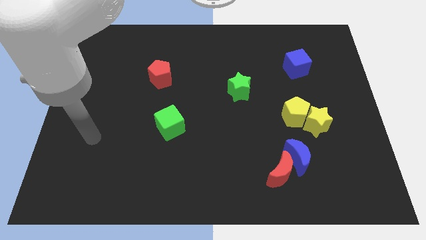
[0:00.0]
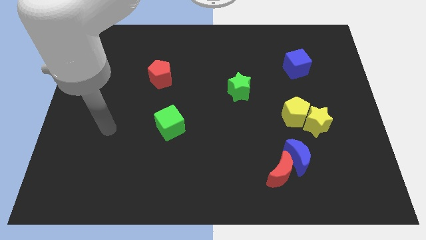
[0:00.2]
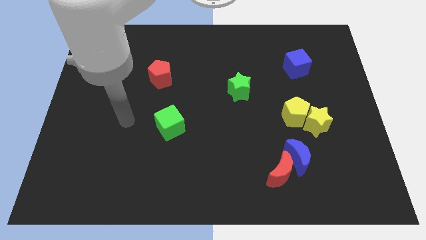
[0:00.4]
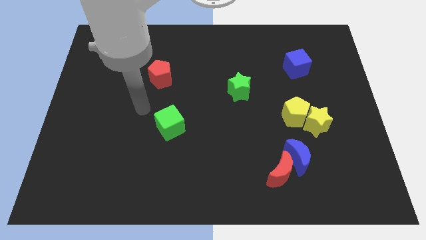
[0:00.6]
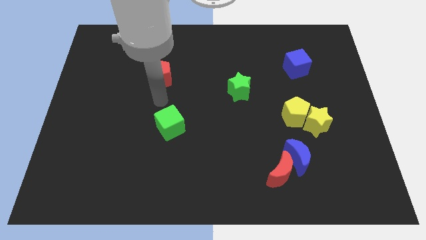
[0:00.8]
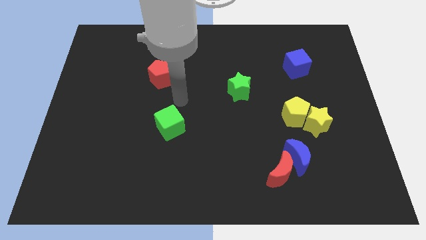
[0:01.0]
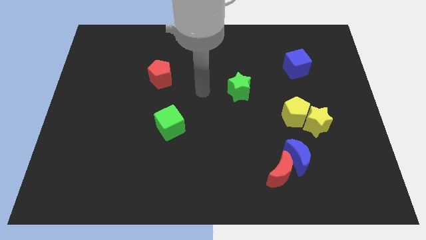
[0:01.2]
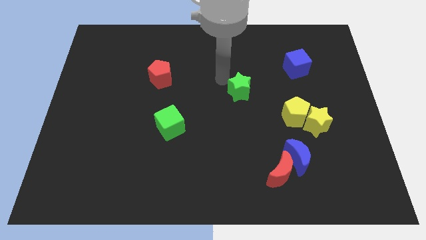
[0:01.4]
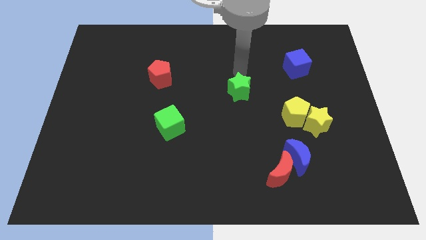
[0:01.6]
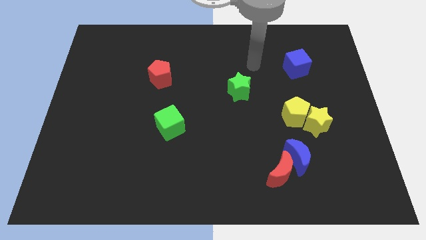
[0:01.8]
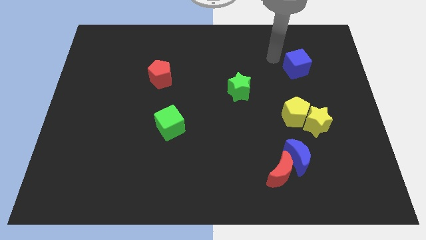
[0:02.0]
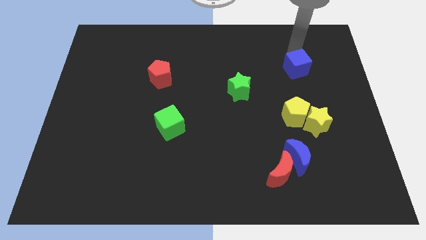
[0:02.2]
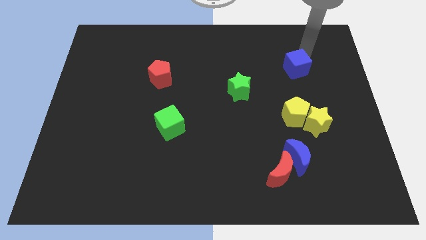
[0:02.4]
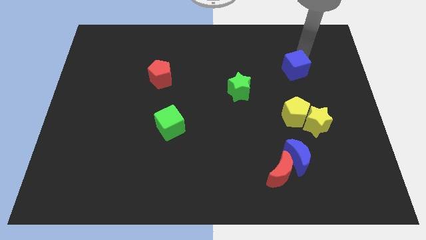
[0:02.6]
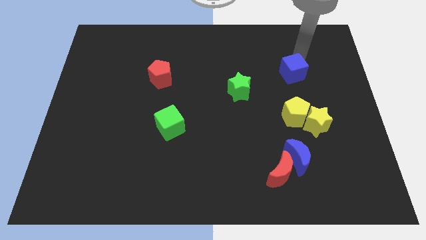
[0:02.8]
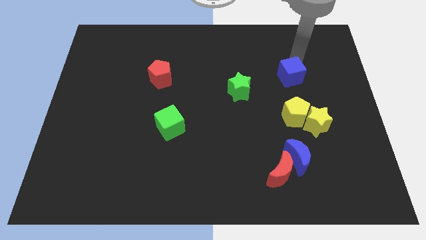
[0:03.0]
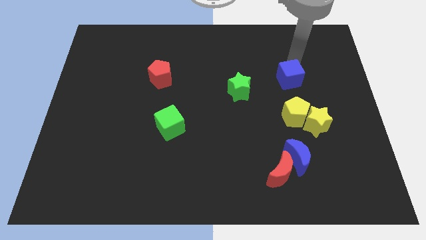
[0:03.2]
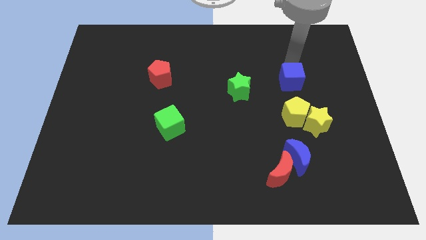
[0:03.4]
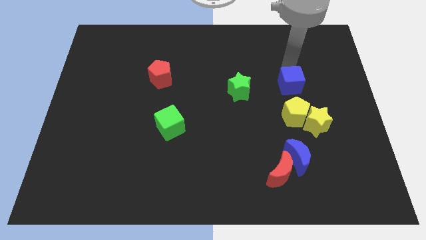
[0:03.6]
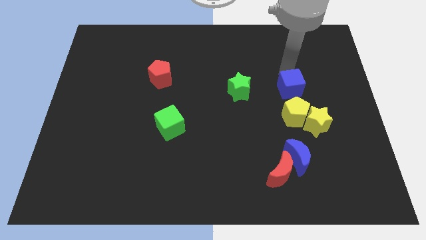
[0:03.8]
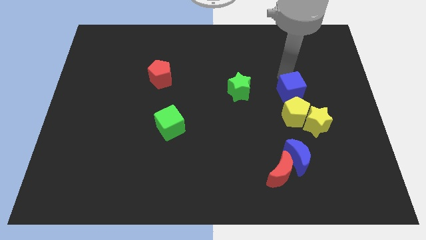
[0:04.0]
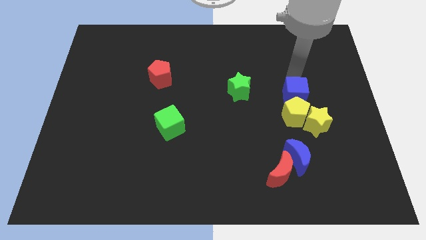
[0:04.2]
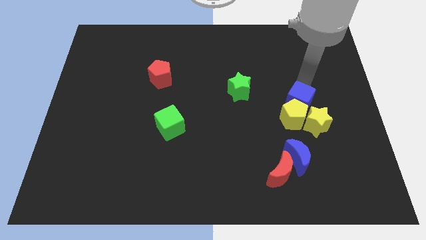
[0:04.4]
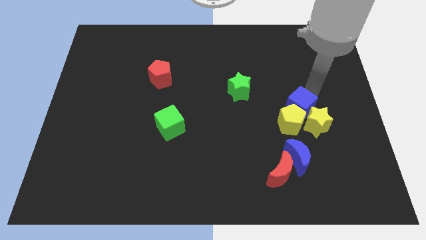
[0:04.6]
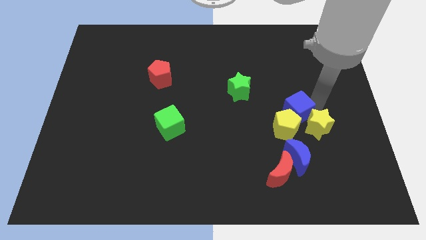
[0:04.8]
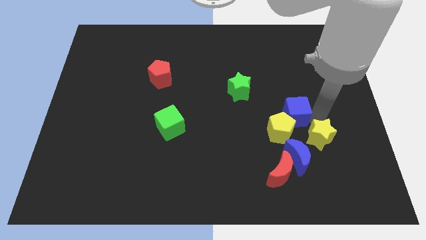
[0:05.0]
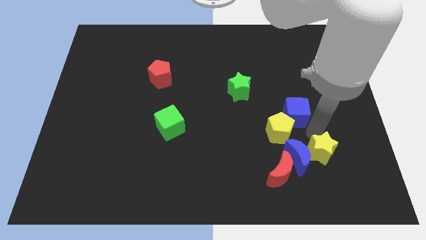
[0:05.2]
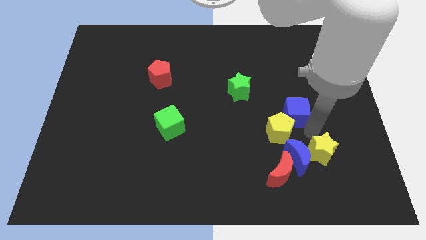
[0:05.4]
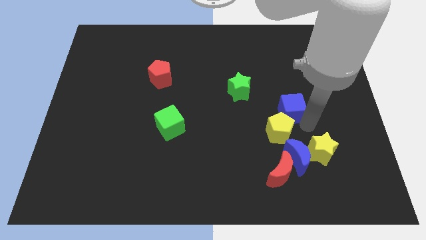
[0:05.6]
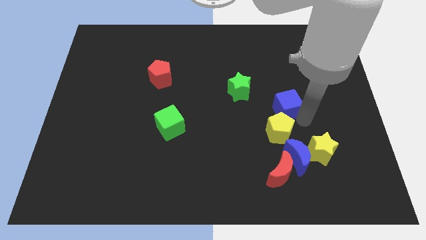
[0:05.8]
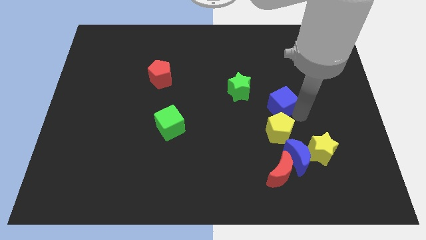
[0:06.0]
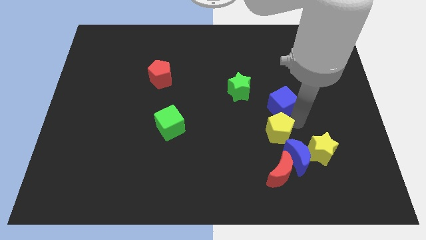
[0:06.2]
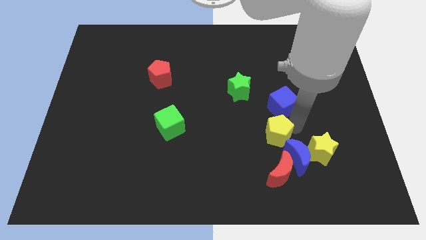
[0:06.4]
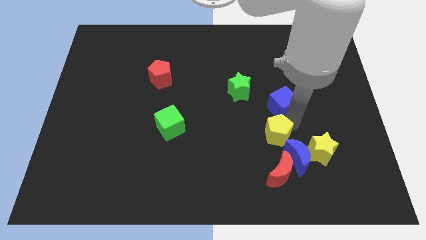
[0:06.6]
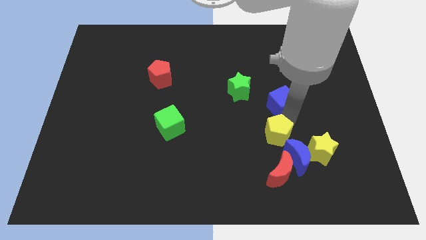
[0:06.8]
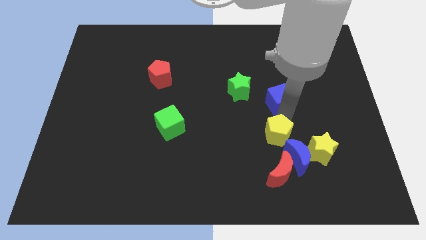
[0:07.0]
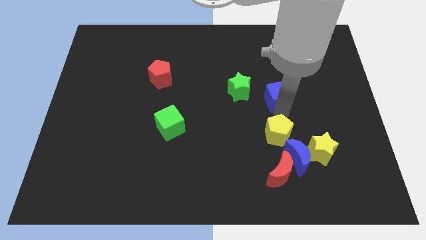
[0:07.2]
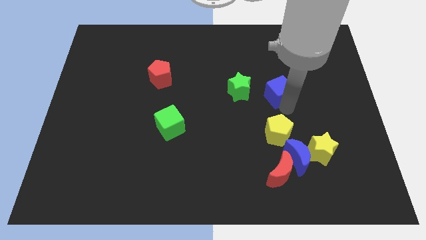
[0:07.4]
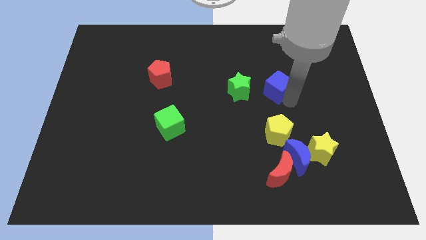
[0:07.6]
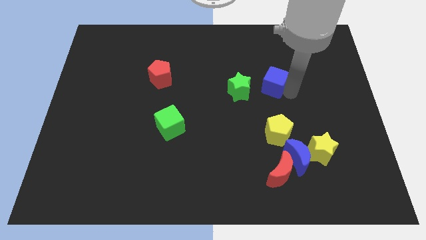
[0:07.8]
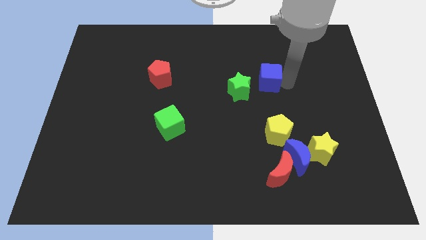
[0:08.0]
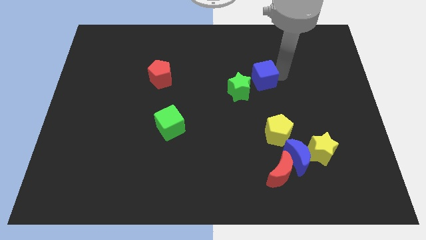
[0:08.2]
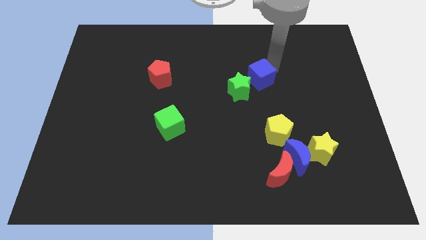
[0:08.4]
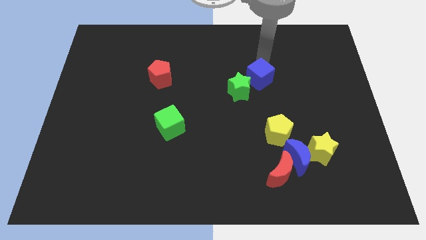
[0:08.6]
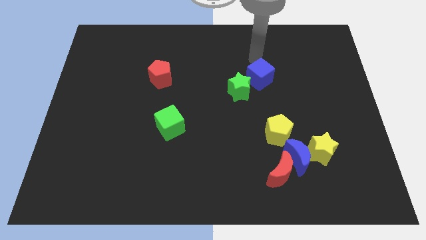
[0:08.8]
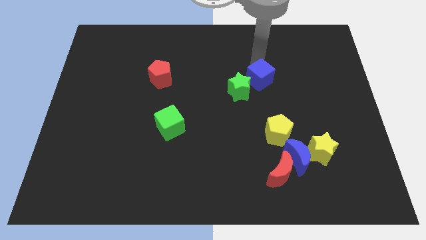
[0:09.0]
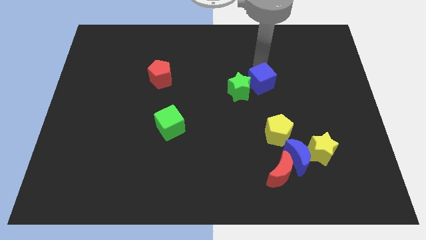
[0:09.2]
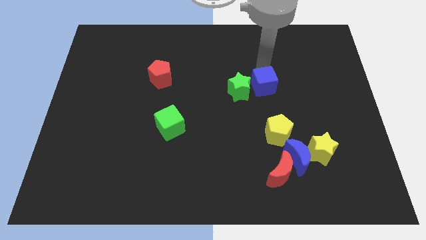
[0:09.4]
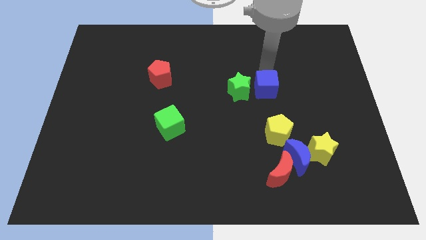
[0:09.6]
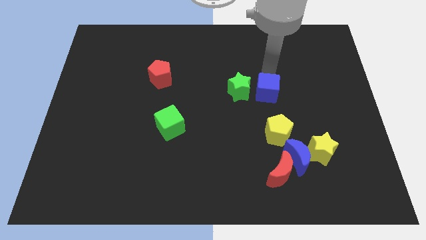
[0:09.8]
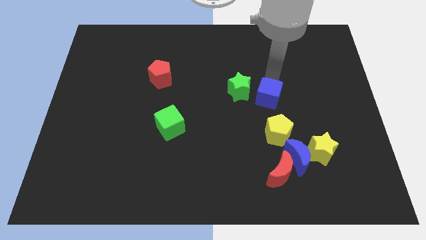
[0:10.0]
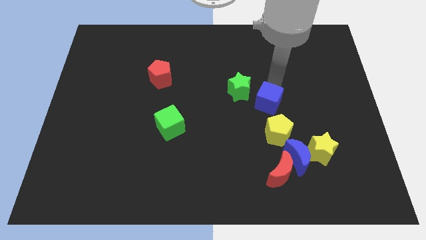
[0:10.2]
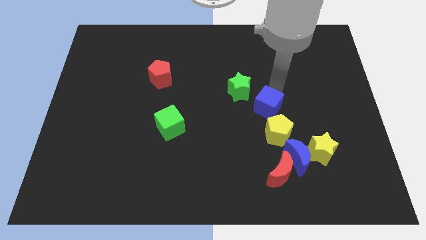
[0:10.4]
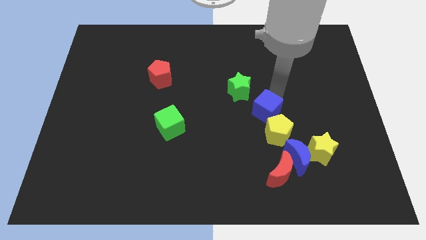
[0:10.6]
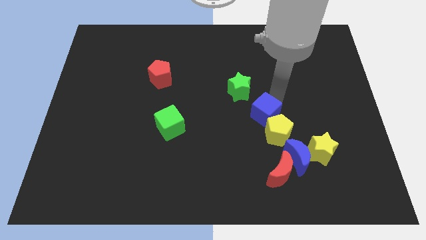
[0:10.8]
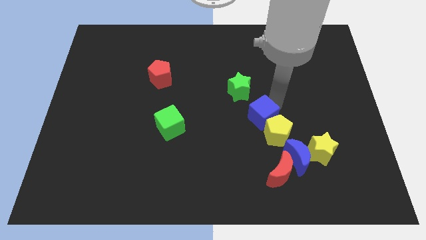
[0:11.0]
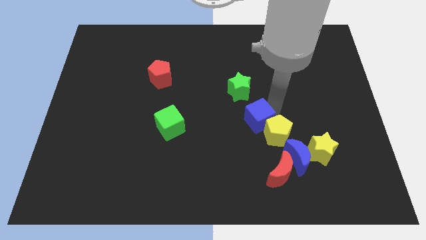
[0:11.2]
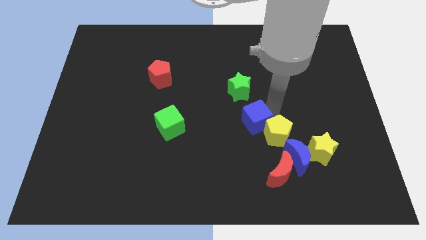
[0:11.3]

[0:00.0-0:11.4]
slide the blue cube down and to the left diagonally

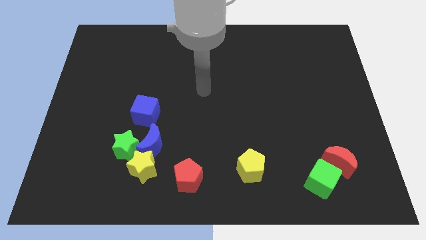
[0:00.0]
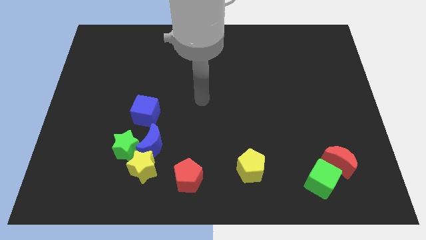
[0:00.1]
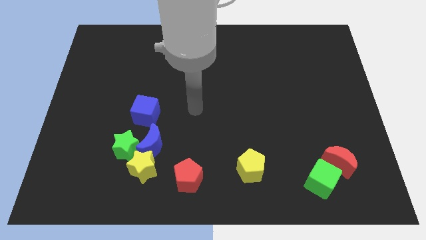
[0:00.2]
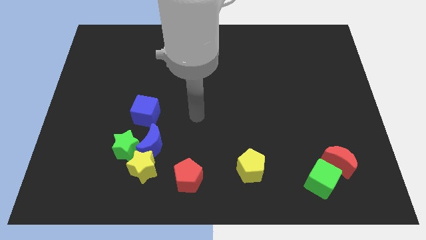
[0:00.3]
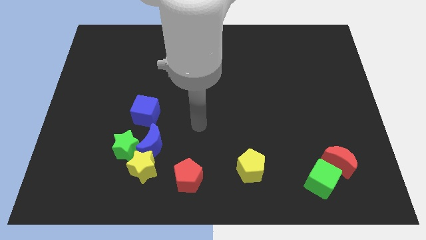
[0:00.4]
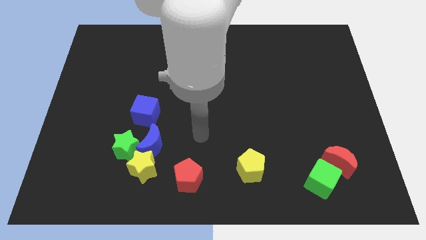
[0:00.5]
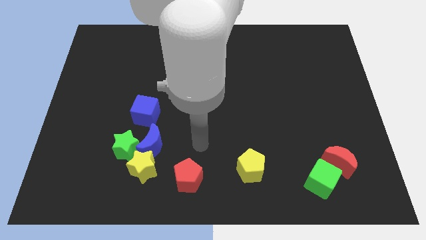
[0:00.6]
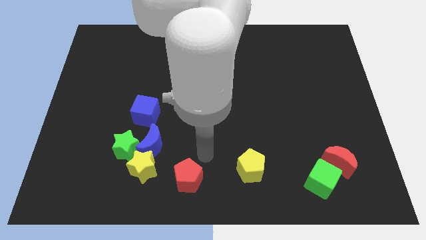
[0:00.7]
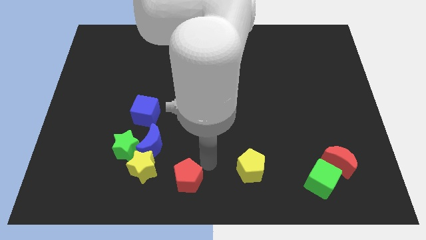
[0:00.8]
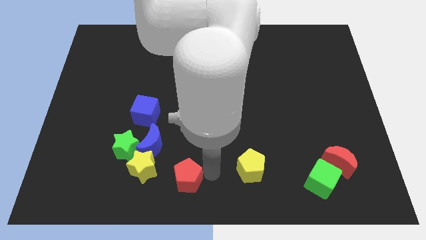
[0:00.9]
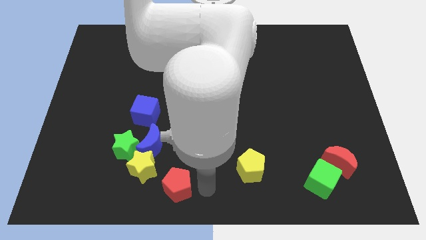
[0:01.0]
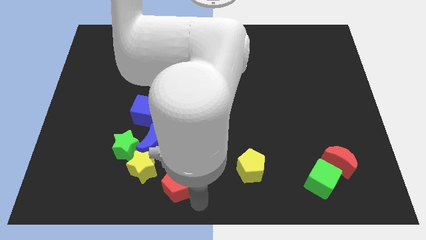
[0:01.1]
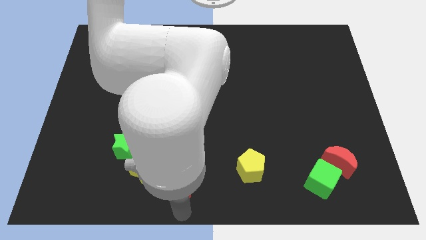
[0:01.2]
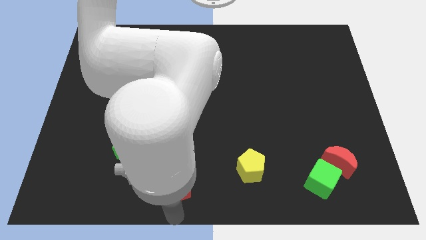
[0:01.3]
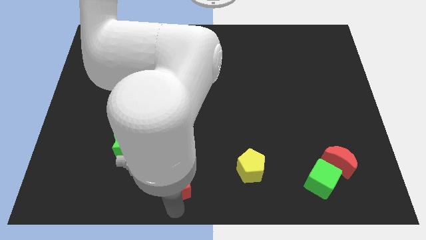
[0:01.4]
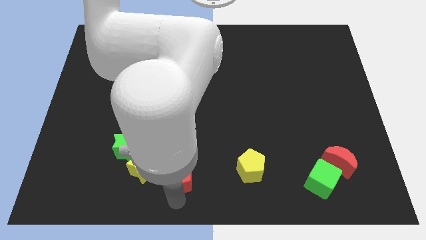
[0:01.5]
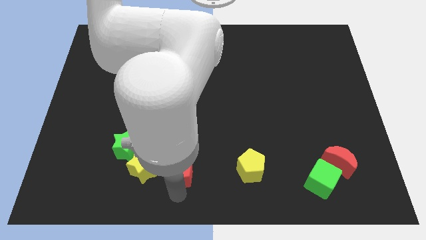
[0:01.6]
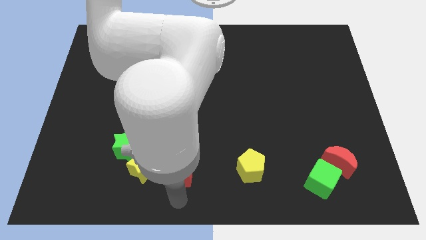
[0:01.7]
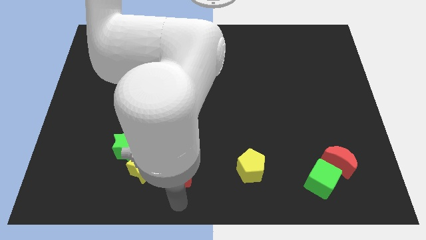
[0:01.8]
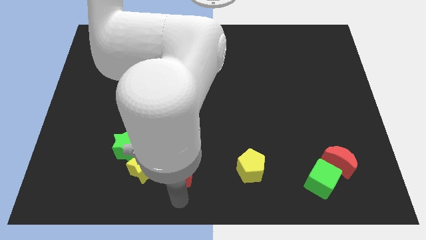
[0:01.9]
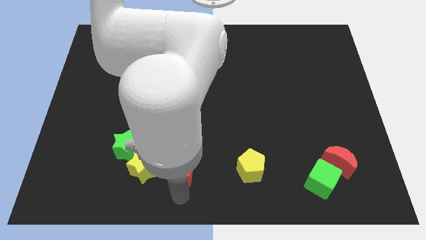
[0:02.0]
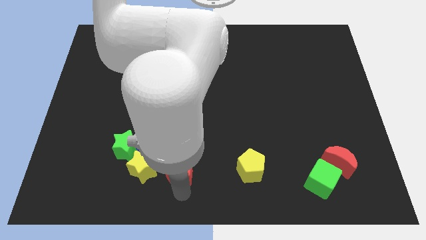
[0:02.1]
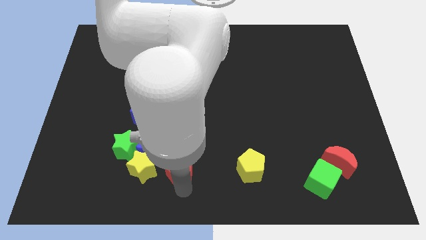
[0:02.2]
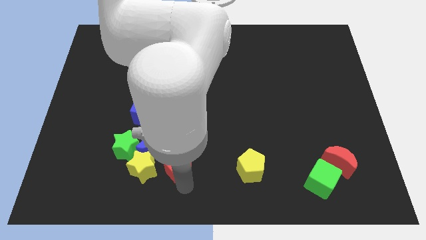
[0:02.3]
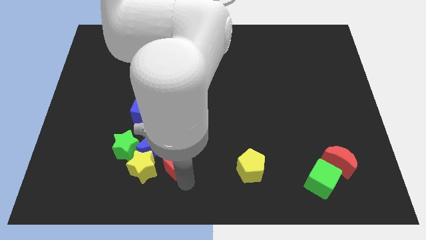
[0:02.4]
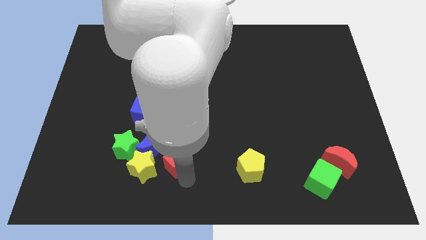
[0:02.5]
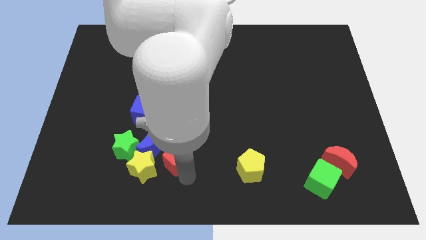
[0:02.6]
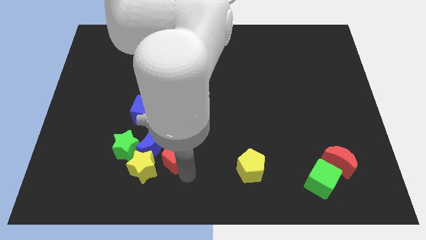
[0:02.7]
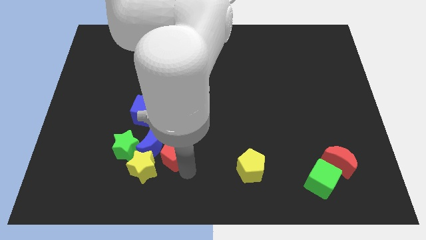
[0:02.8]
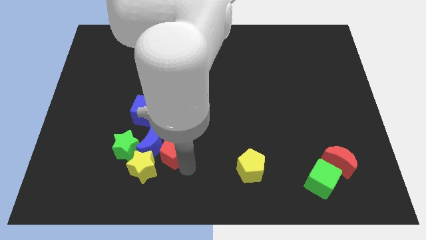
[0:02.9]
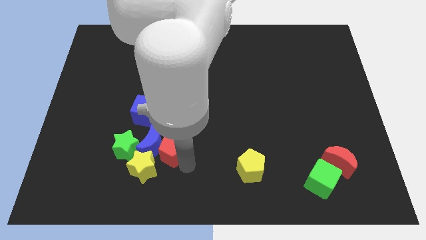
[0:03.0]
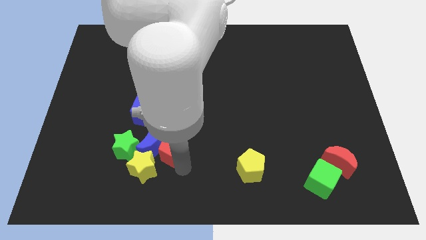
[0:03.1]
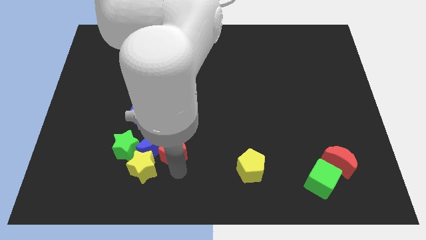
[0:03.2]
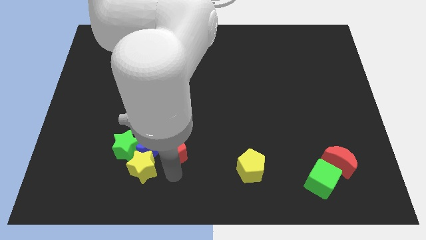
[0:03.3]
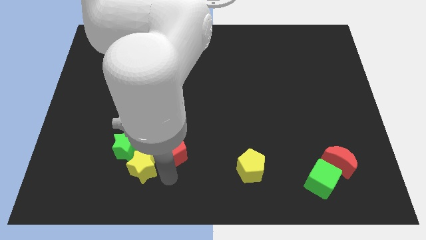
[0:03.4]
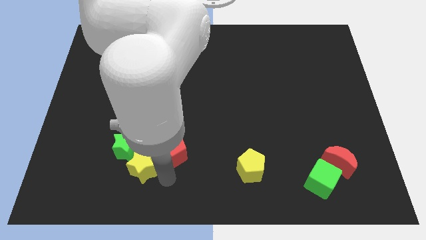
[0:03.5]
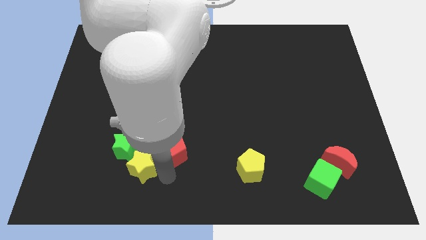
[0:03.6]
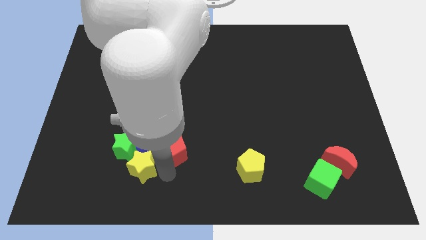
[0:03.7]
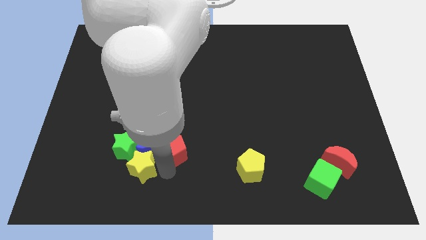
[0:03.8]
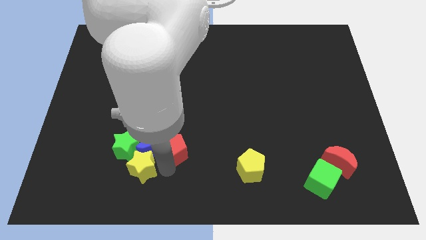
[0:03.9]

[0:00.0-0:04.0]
push the red pentagon upwards and to the left a little bit
